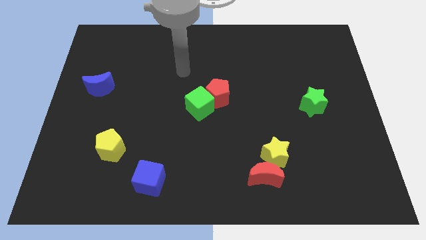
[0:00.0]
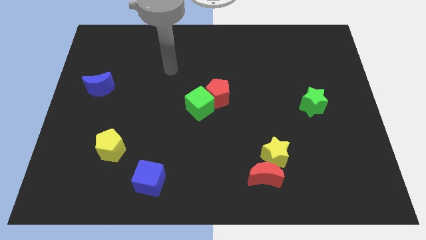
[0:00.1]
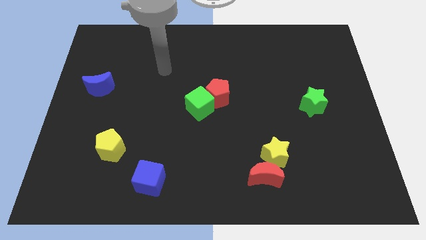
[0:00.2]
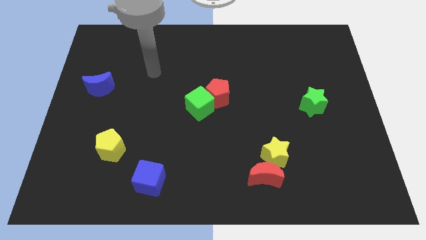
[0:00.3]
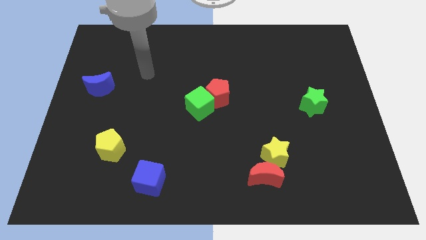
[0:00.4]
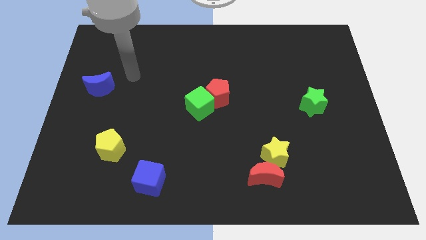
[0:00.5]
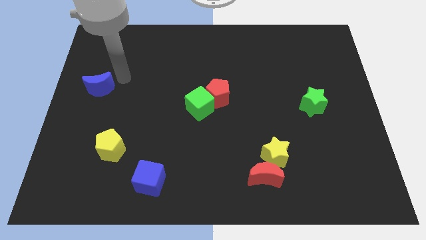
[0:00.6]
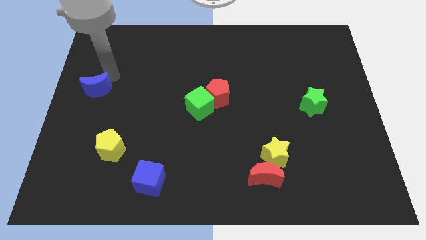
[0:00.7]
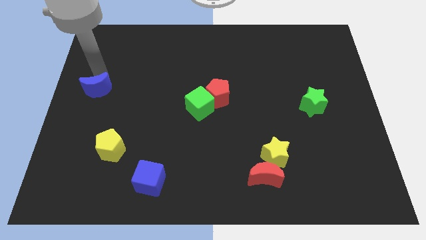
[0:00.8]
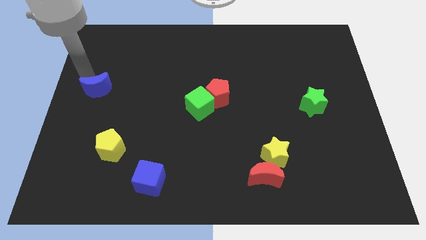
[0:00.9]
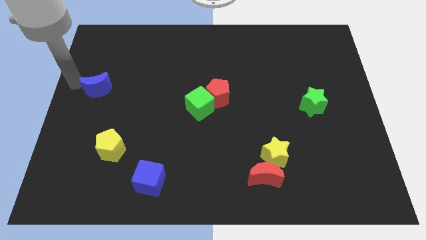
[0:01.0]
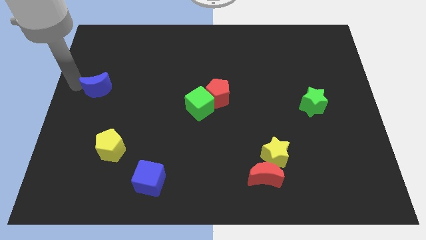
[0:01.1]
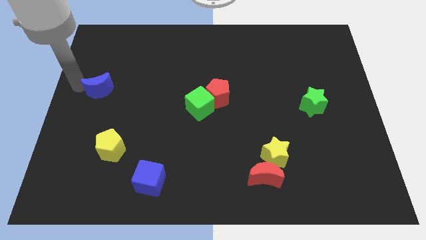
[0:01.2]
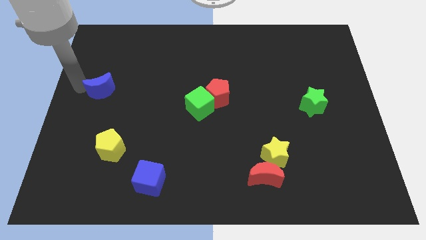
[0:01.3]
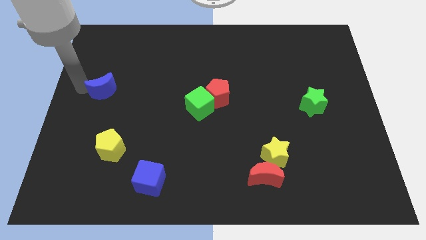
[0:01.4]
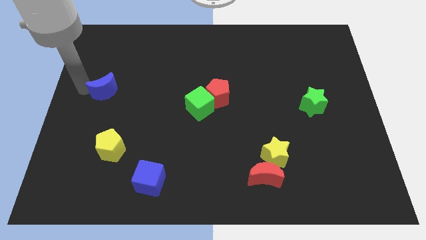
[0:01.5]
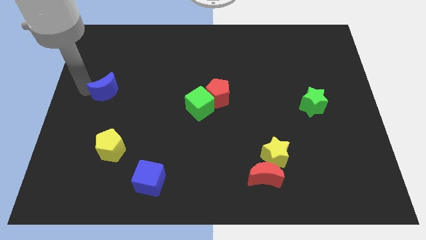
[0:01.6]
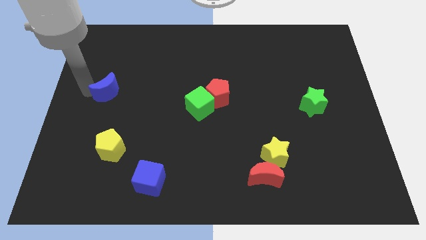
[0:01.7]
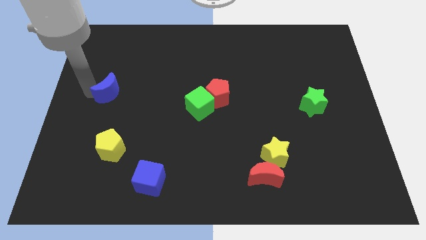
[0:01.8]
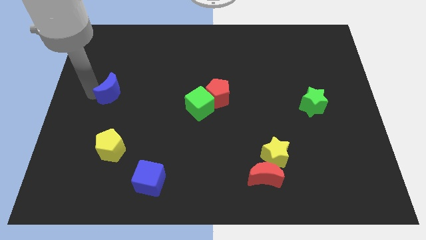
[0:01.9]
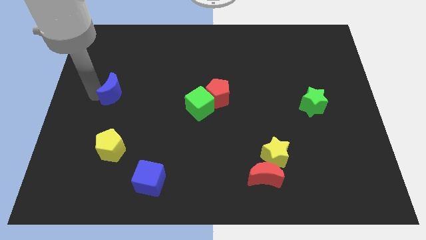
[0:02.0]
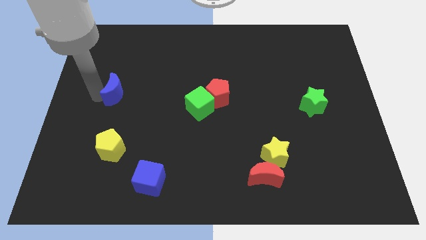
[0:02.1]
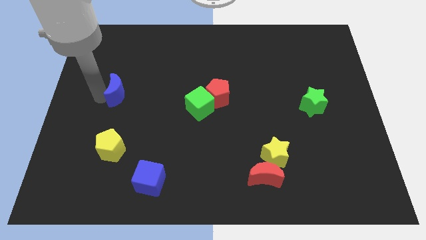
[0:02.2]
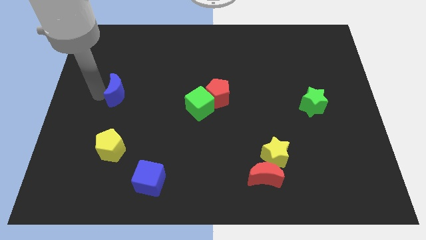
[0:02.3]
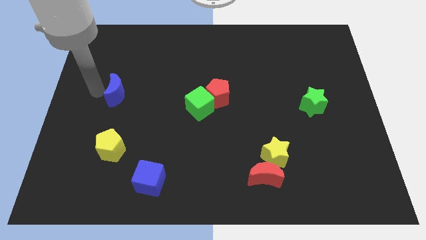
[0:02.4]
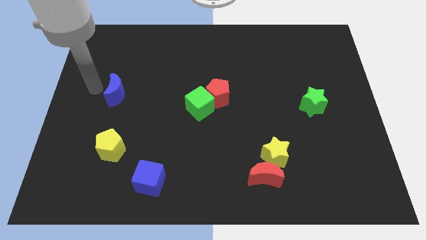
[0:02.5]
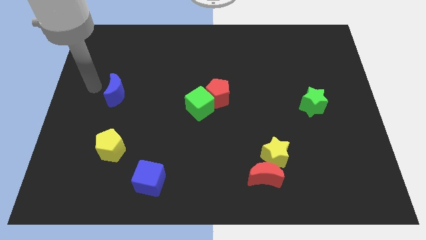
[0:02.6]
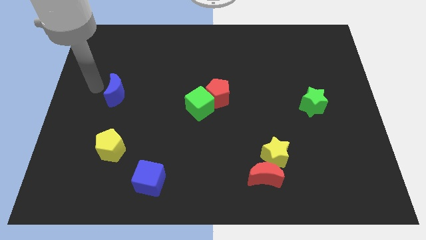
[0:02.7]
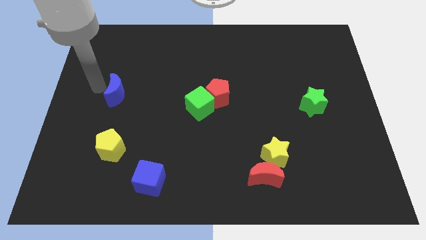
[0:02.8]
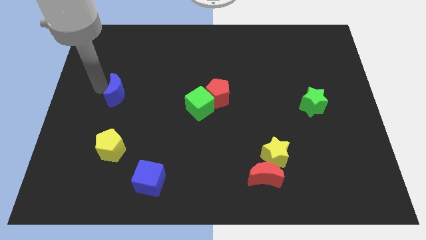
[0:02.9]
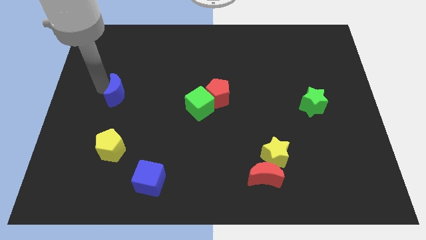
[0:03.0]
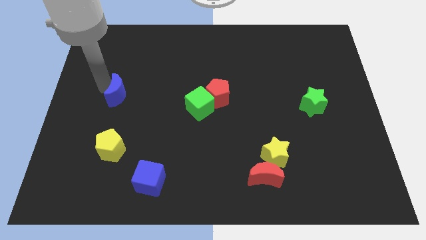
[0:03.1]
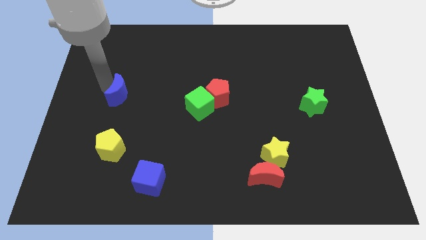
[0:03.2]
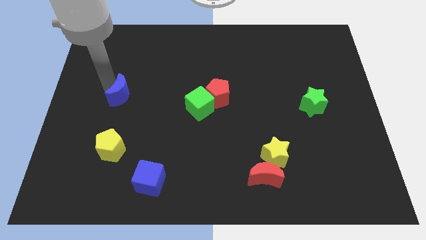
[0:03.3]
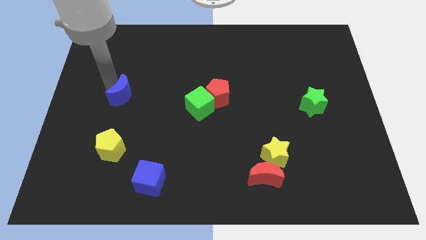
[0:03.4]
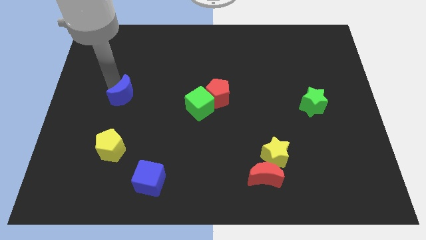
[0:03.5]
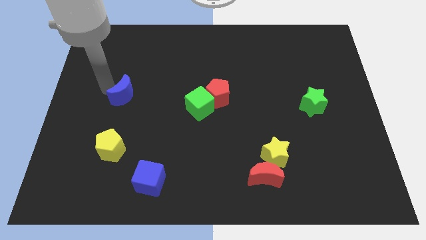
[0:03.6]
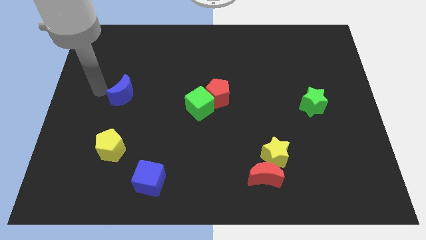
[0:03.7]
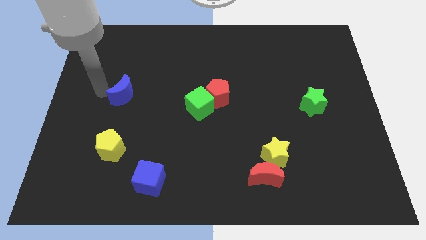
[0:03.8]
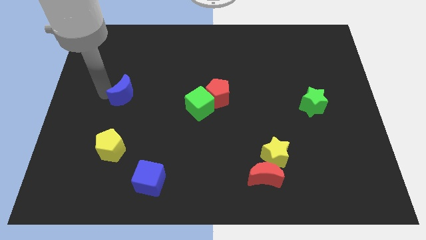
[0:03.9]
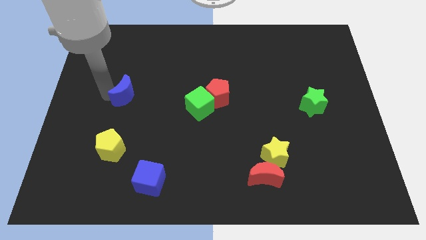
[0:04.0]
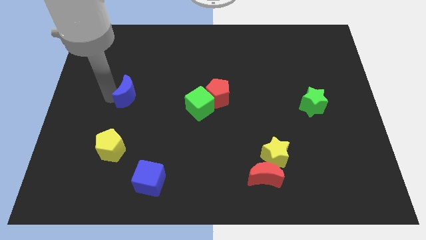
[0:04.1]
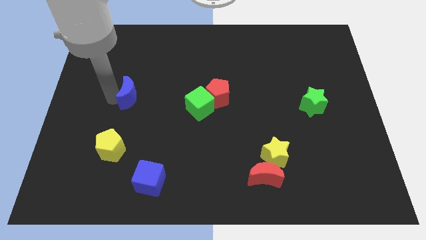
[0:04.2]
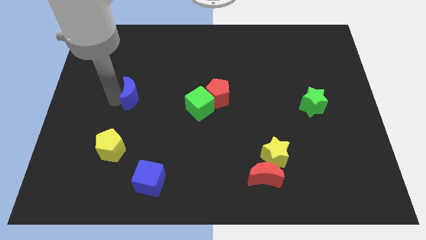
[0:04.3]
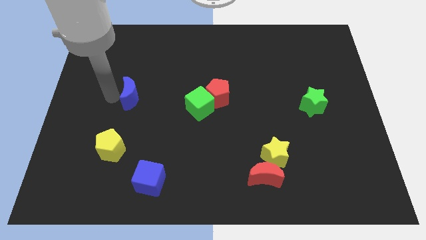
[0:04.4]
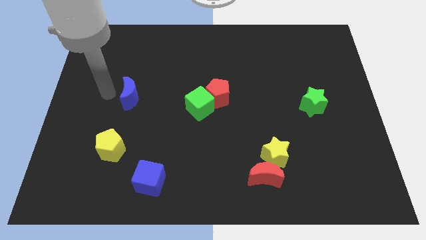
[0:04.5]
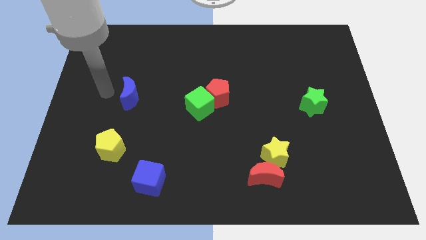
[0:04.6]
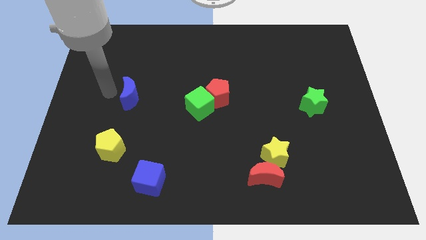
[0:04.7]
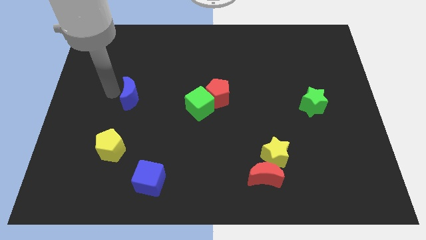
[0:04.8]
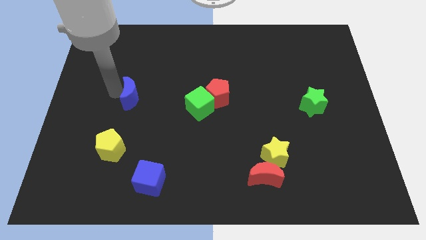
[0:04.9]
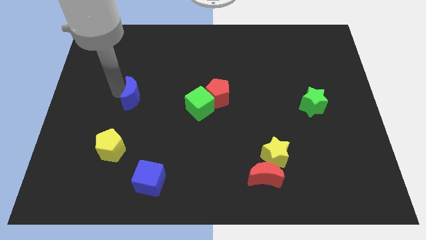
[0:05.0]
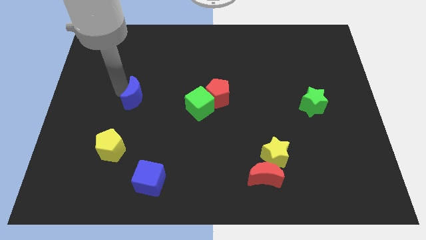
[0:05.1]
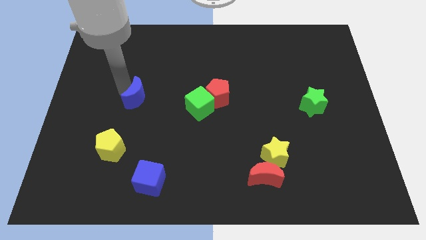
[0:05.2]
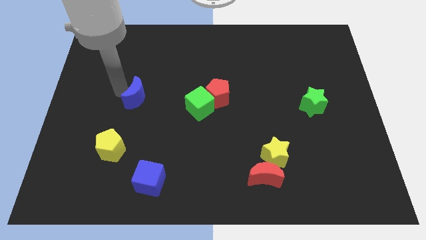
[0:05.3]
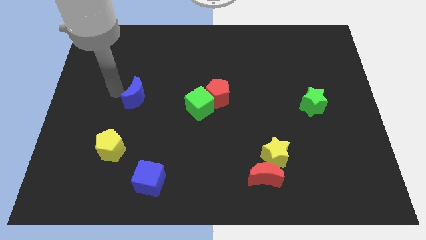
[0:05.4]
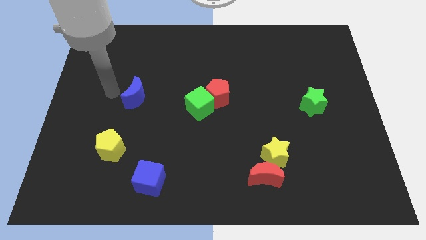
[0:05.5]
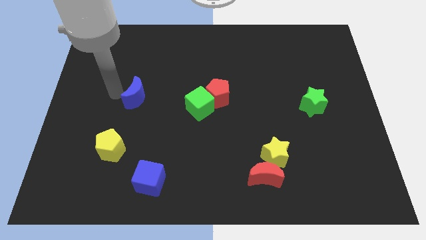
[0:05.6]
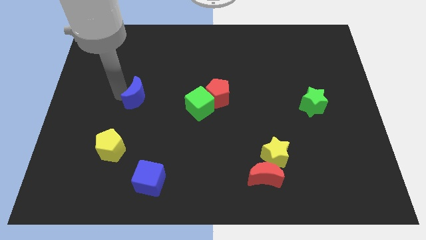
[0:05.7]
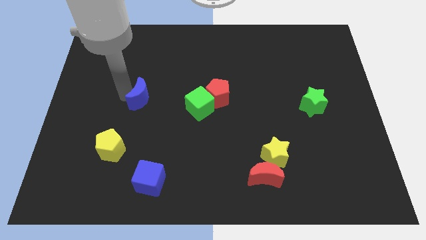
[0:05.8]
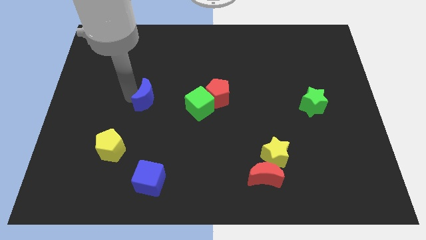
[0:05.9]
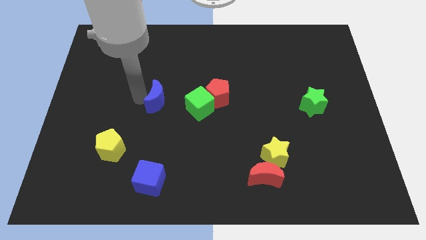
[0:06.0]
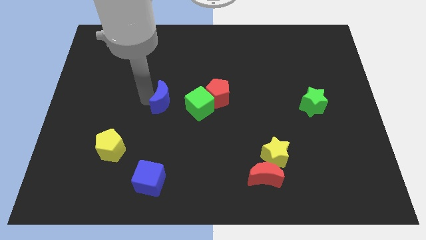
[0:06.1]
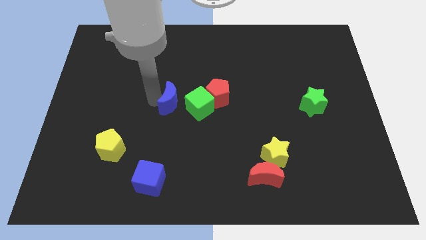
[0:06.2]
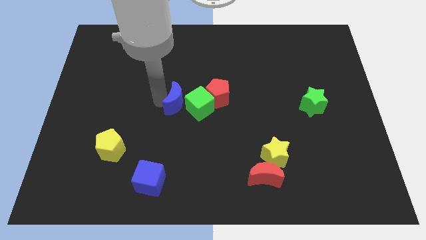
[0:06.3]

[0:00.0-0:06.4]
slide the blue moon to the green cube

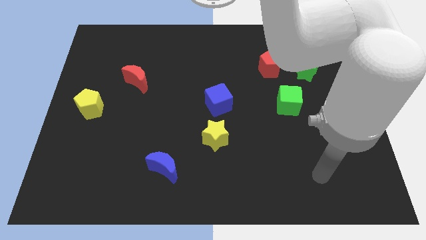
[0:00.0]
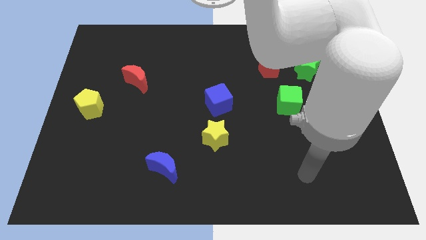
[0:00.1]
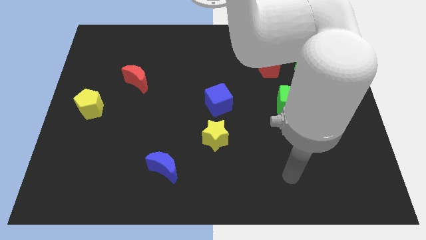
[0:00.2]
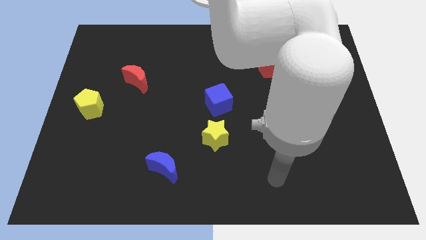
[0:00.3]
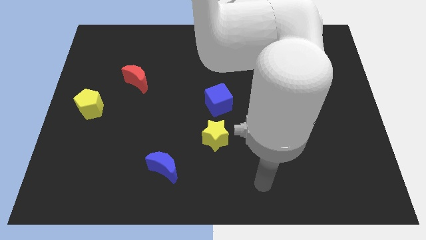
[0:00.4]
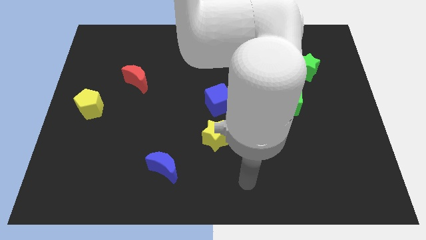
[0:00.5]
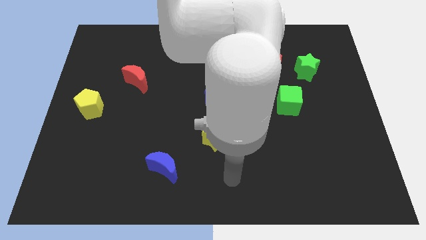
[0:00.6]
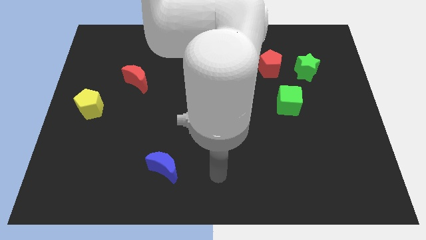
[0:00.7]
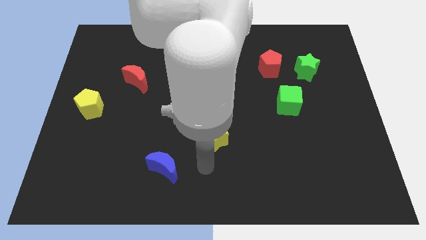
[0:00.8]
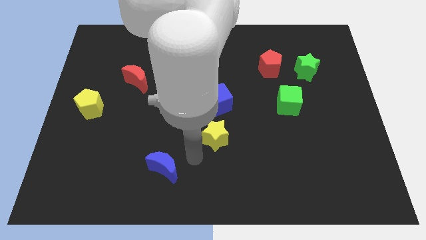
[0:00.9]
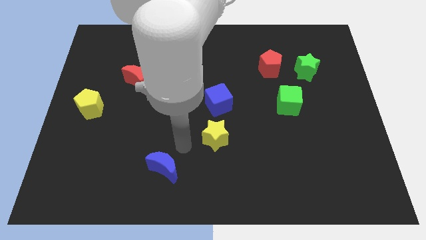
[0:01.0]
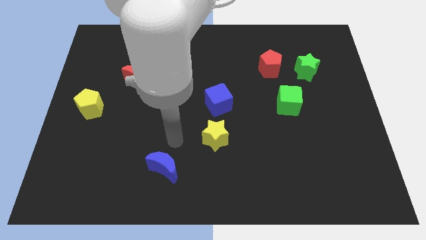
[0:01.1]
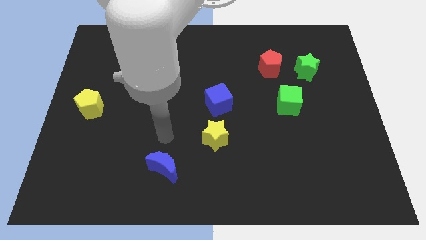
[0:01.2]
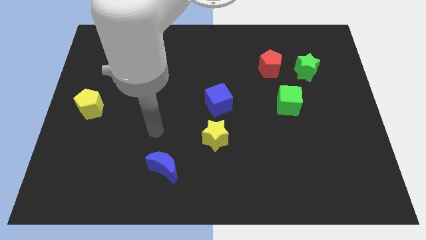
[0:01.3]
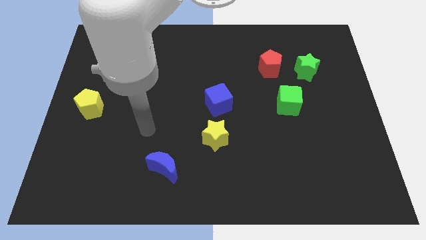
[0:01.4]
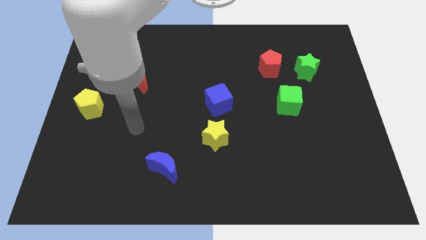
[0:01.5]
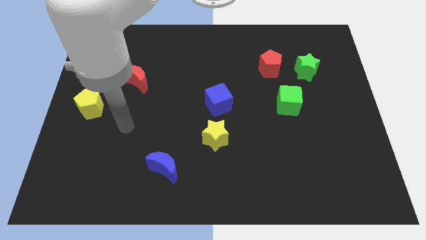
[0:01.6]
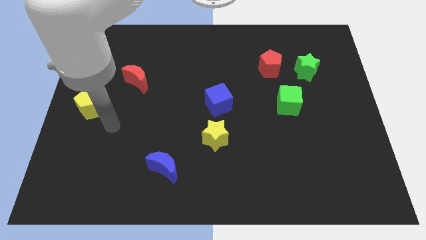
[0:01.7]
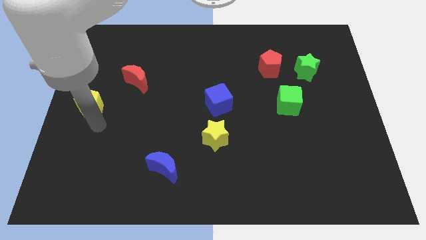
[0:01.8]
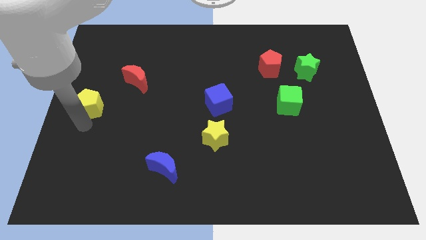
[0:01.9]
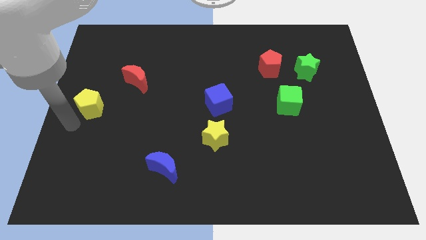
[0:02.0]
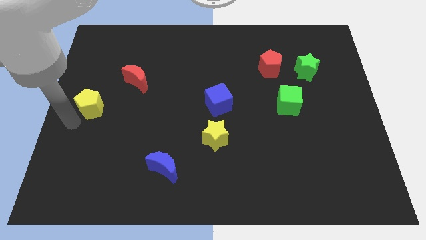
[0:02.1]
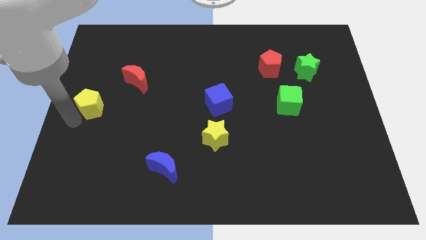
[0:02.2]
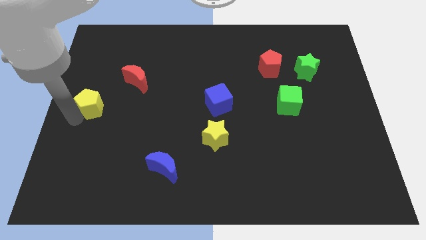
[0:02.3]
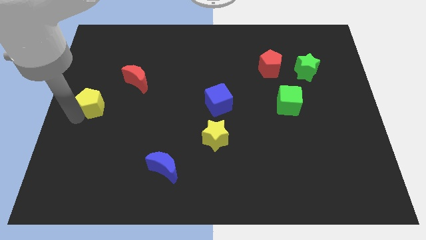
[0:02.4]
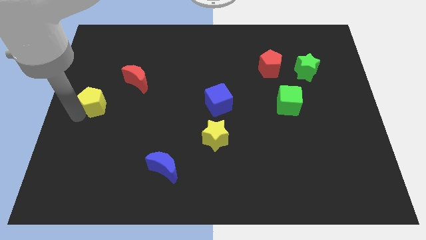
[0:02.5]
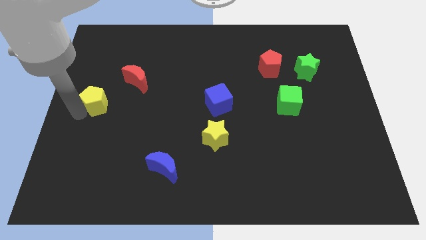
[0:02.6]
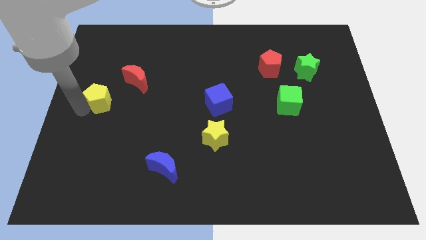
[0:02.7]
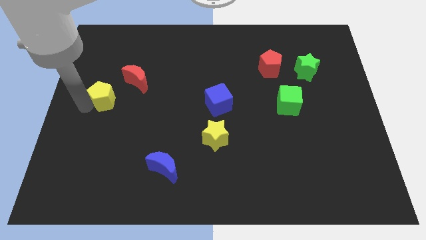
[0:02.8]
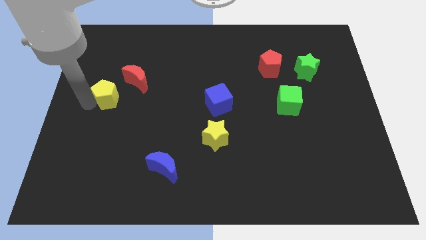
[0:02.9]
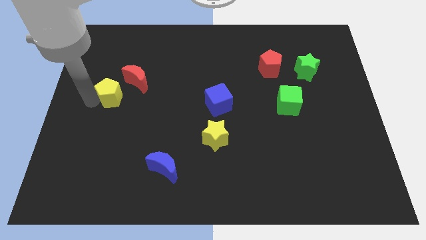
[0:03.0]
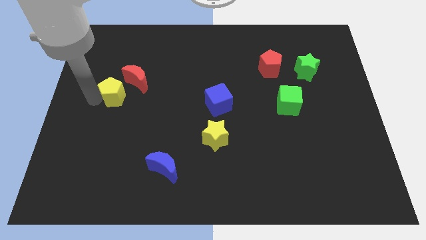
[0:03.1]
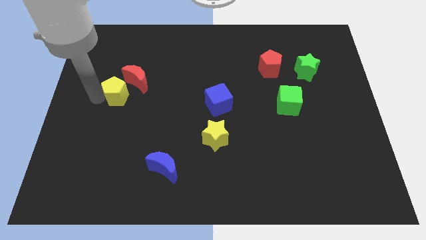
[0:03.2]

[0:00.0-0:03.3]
slide the yellow pentagon close to the red moon
